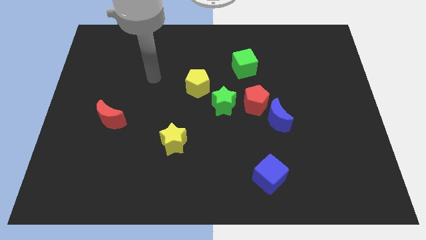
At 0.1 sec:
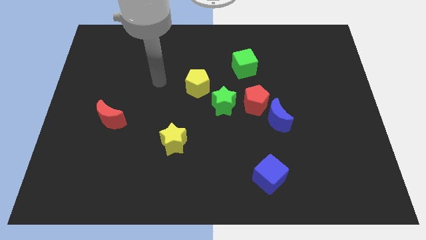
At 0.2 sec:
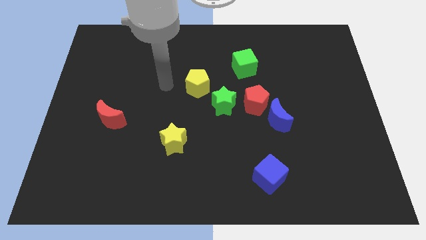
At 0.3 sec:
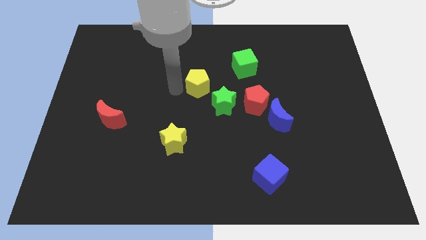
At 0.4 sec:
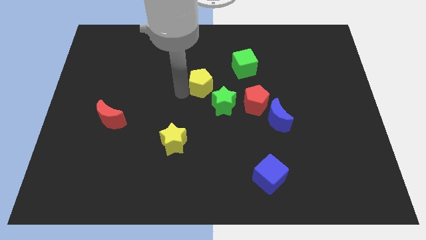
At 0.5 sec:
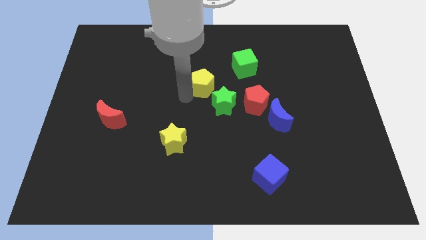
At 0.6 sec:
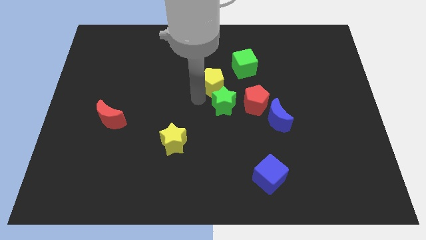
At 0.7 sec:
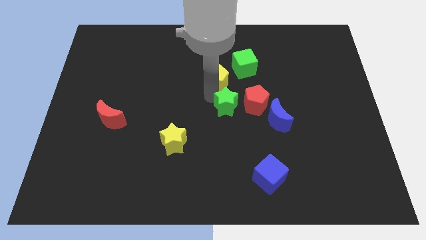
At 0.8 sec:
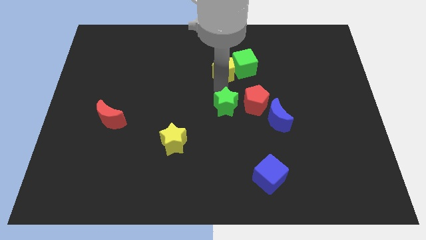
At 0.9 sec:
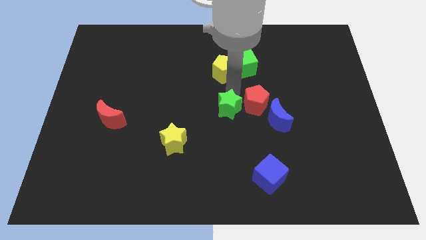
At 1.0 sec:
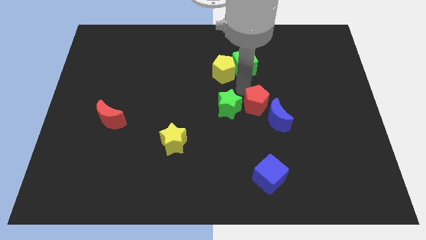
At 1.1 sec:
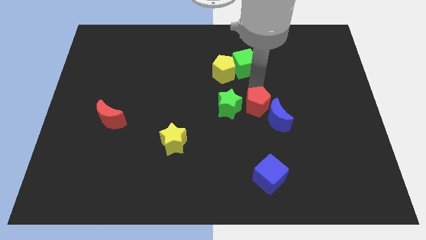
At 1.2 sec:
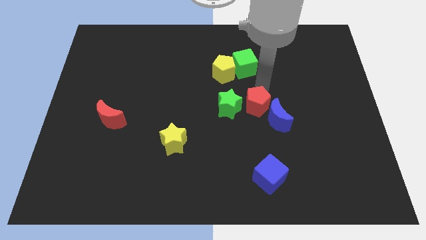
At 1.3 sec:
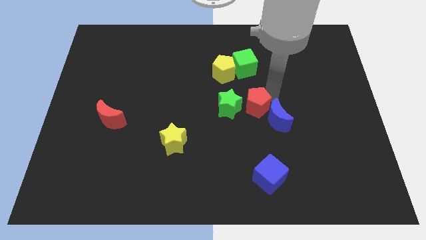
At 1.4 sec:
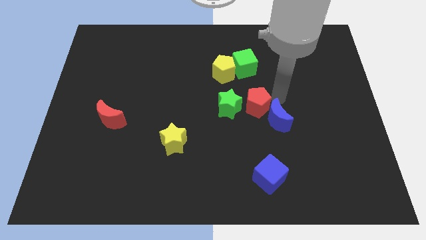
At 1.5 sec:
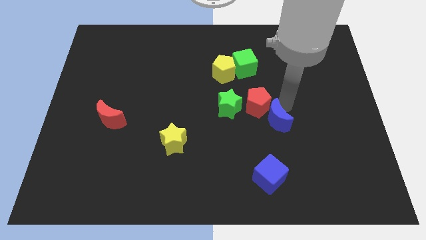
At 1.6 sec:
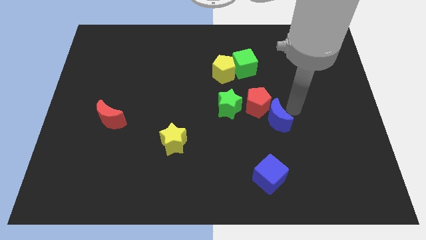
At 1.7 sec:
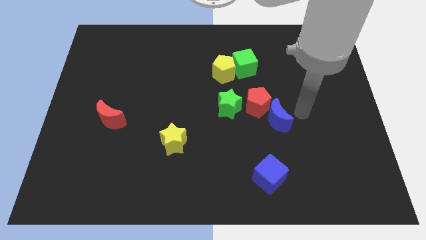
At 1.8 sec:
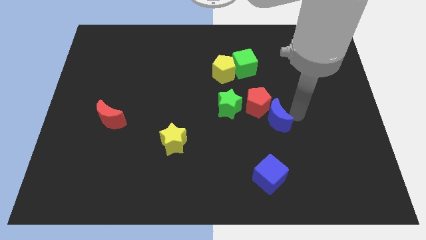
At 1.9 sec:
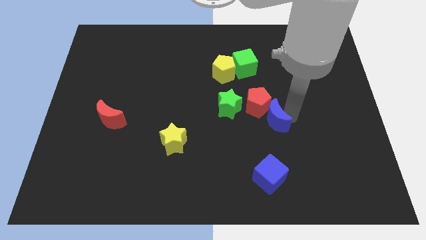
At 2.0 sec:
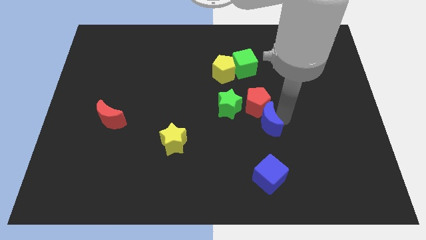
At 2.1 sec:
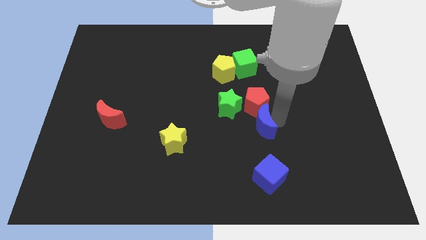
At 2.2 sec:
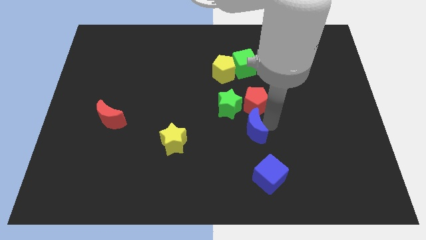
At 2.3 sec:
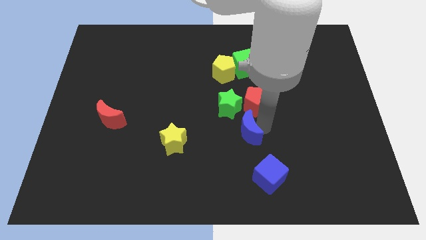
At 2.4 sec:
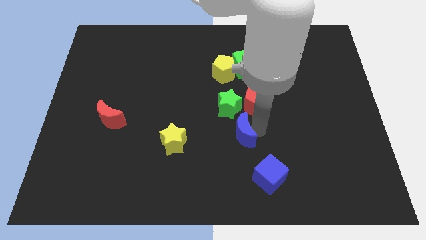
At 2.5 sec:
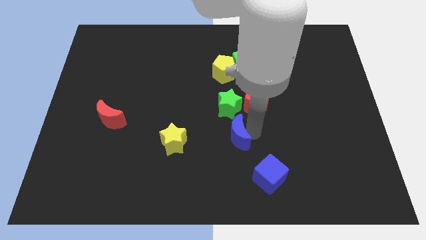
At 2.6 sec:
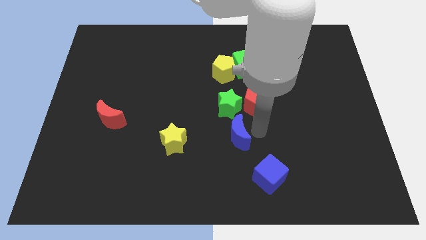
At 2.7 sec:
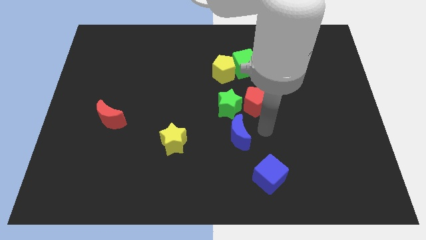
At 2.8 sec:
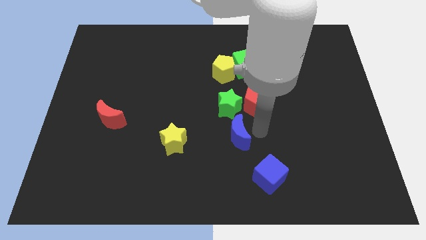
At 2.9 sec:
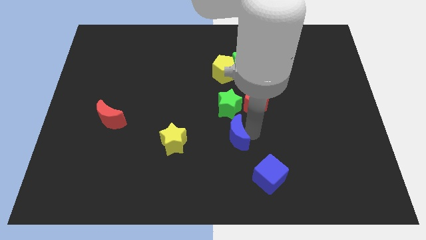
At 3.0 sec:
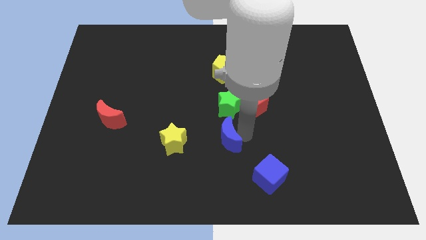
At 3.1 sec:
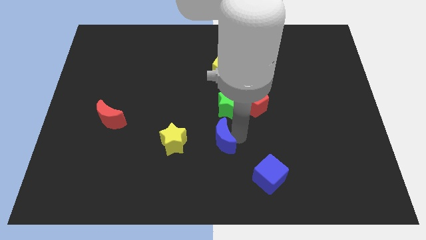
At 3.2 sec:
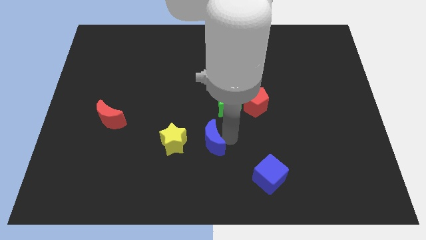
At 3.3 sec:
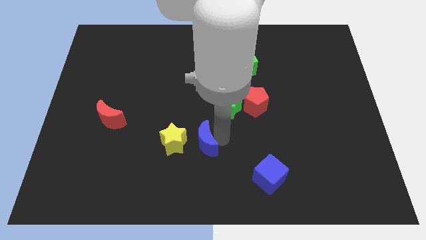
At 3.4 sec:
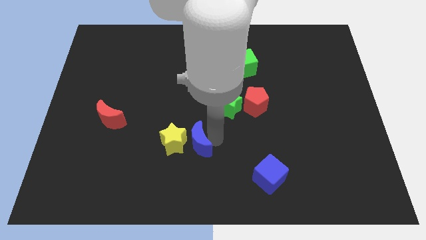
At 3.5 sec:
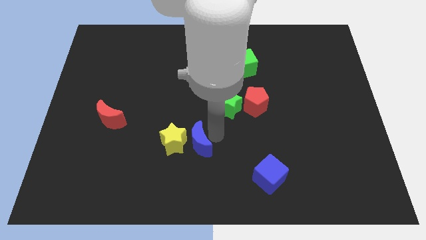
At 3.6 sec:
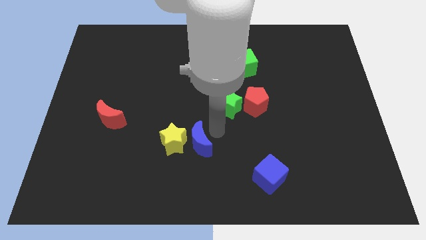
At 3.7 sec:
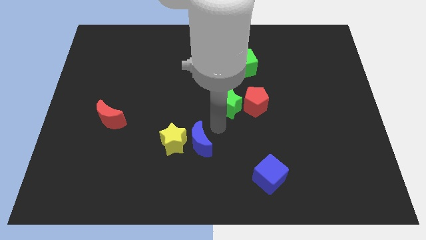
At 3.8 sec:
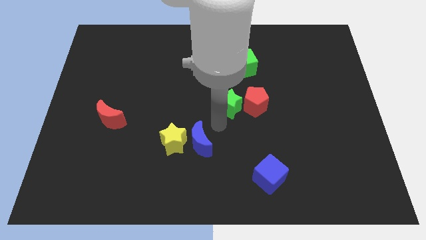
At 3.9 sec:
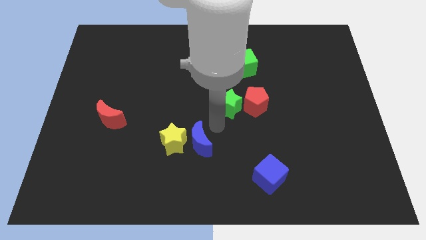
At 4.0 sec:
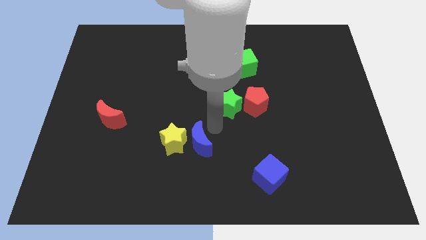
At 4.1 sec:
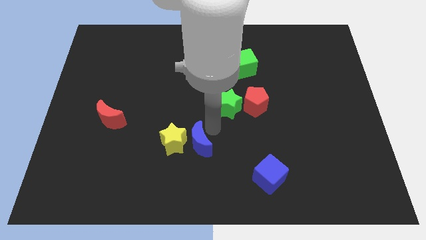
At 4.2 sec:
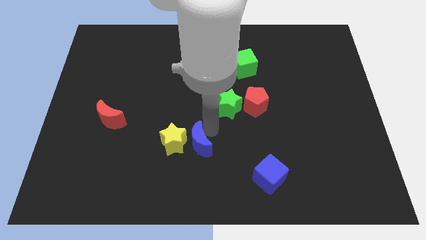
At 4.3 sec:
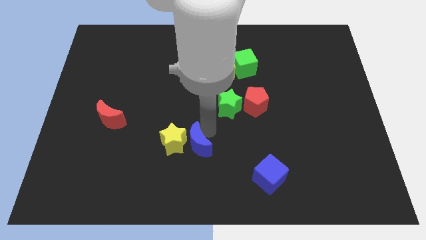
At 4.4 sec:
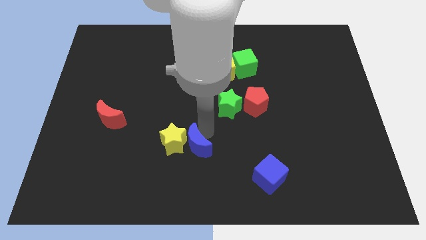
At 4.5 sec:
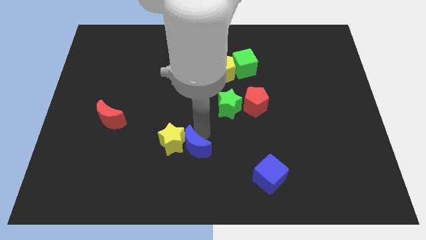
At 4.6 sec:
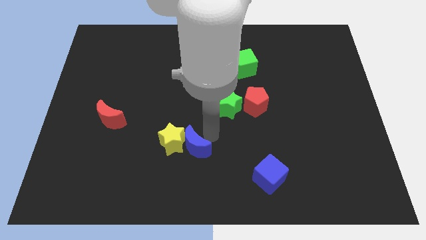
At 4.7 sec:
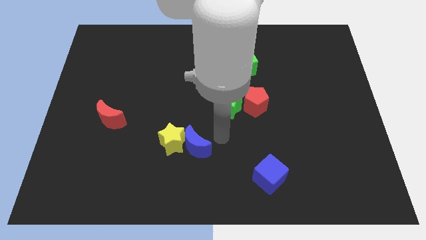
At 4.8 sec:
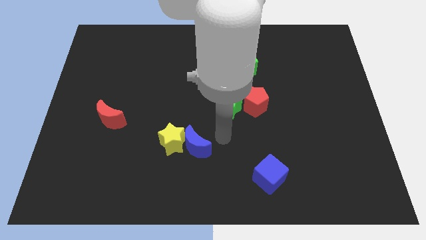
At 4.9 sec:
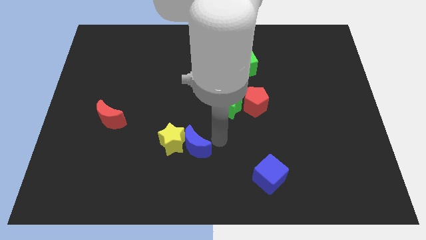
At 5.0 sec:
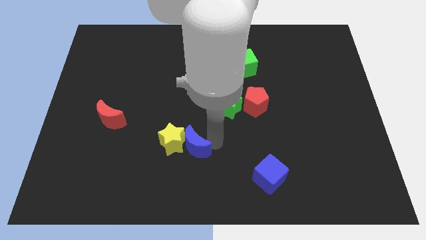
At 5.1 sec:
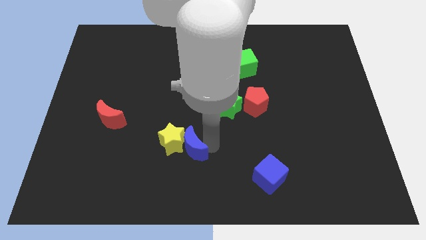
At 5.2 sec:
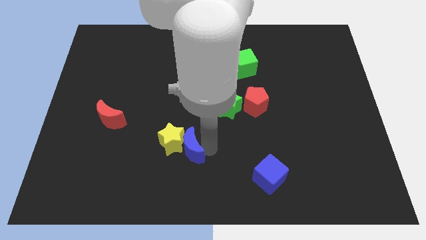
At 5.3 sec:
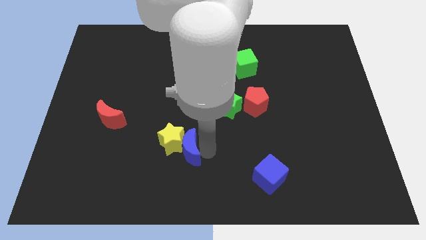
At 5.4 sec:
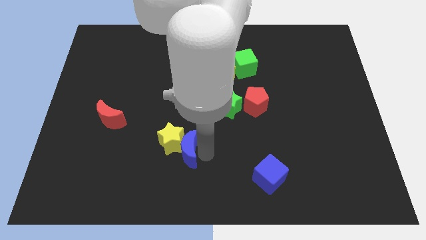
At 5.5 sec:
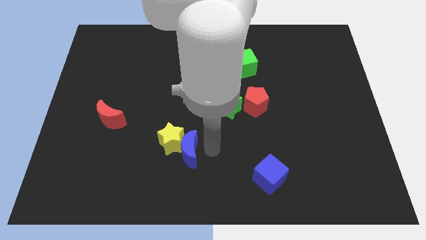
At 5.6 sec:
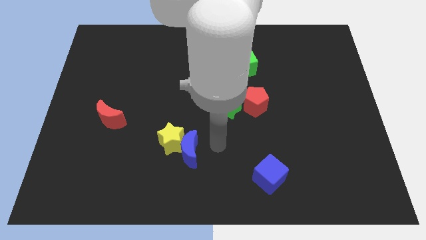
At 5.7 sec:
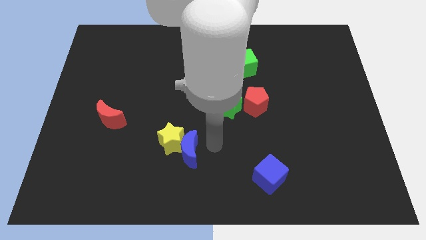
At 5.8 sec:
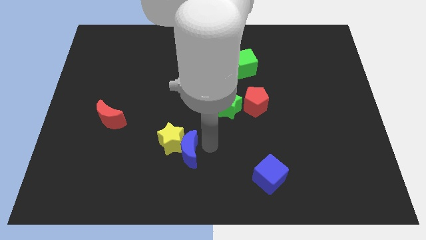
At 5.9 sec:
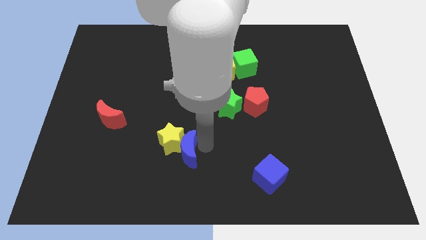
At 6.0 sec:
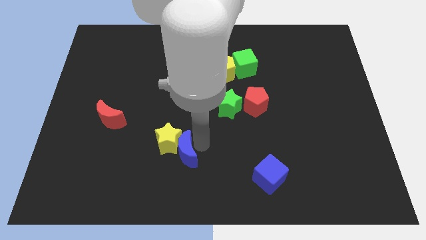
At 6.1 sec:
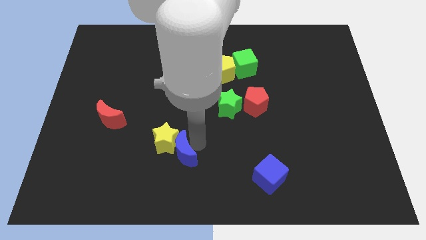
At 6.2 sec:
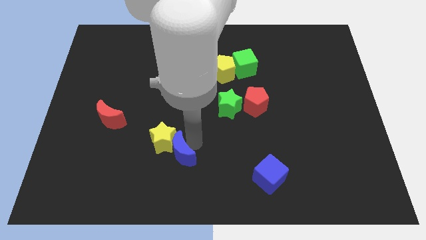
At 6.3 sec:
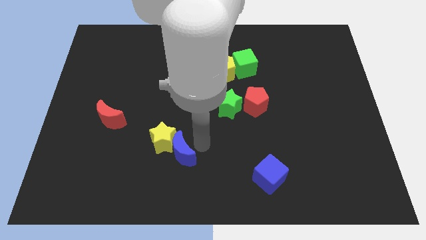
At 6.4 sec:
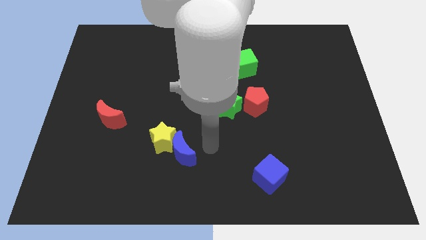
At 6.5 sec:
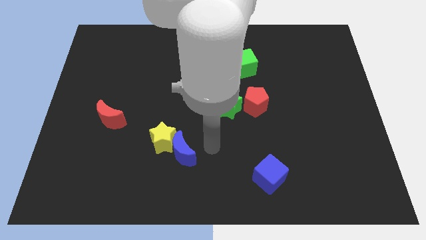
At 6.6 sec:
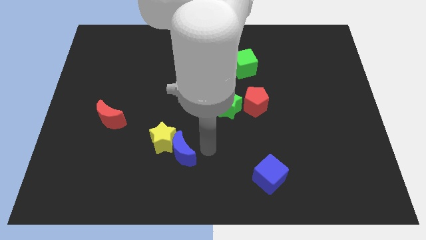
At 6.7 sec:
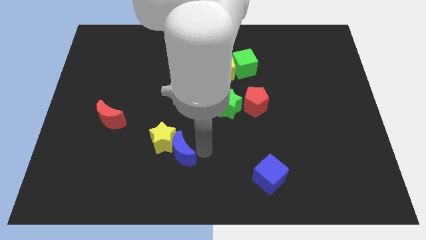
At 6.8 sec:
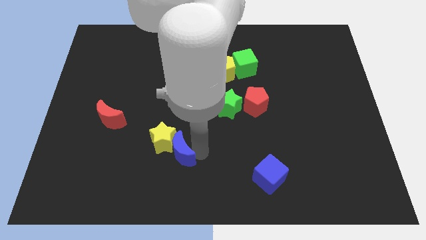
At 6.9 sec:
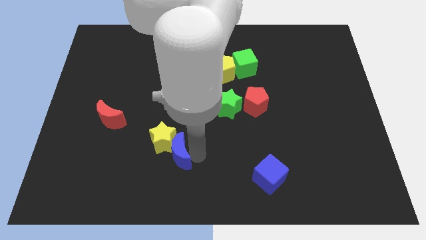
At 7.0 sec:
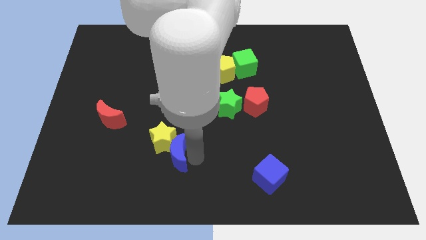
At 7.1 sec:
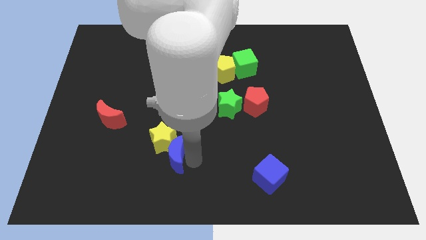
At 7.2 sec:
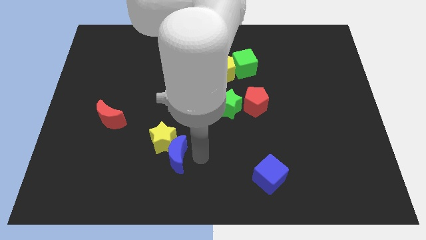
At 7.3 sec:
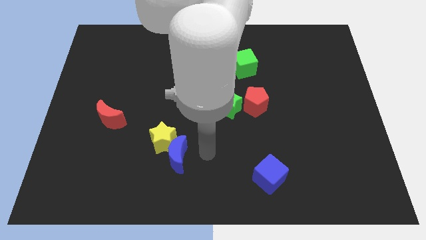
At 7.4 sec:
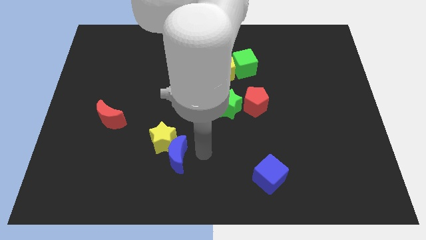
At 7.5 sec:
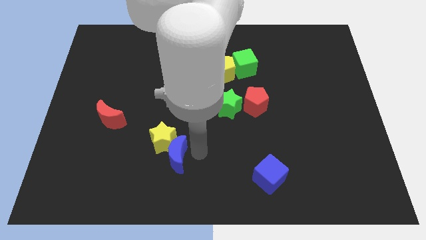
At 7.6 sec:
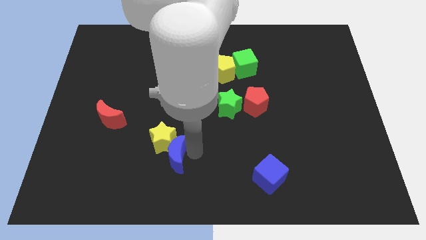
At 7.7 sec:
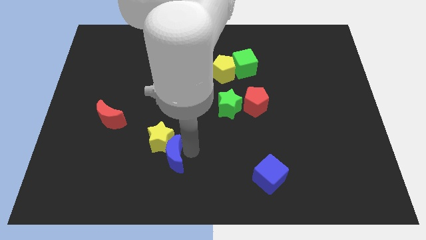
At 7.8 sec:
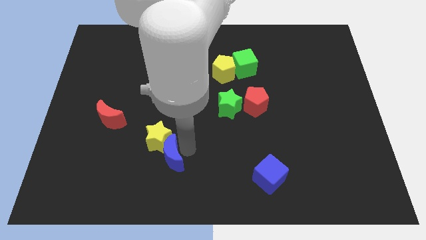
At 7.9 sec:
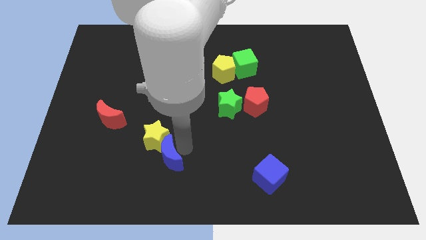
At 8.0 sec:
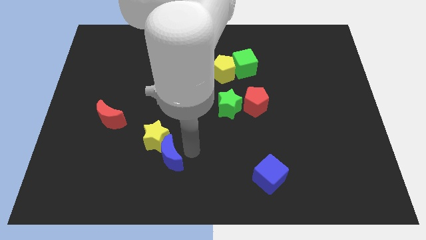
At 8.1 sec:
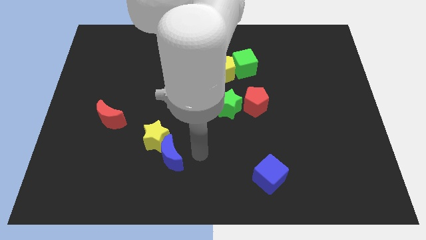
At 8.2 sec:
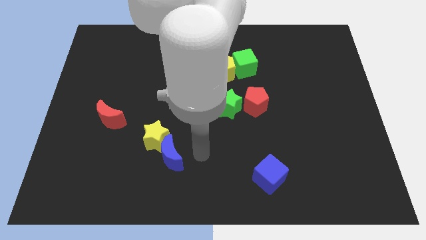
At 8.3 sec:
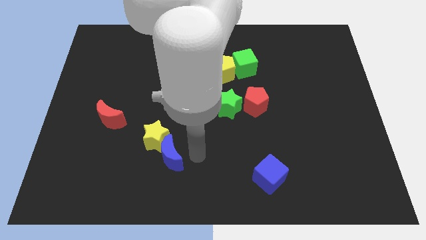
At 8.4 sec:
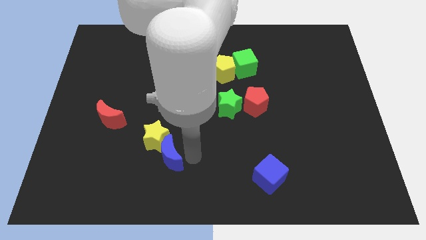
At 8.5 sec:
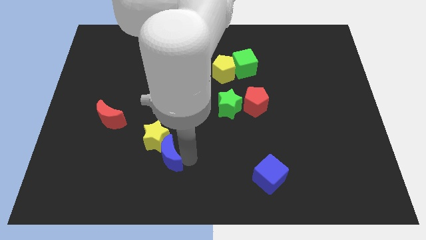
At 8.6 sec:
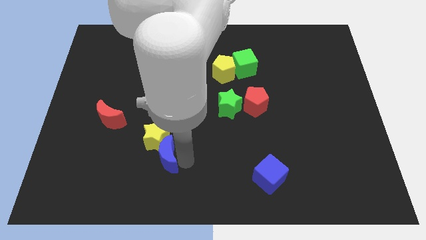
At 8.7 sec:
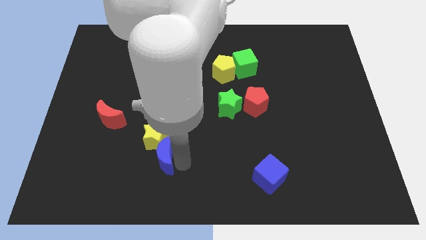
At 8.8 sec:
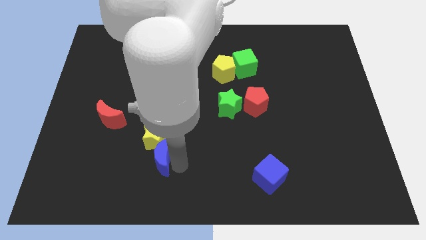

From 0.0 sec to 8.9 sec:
put the blue moon to the bottom left of the yellow star
